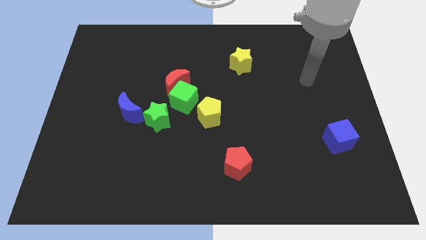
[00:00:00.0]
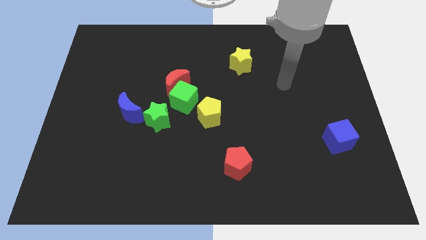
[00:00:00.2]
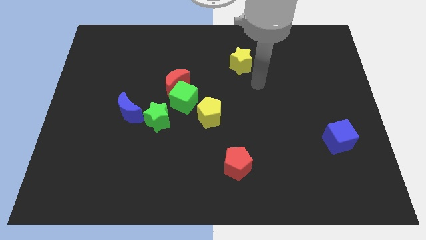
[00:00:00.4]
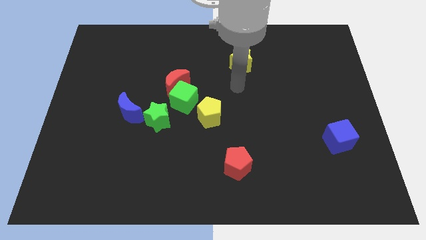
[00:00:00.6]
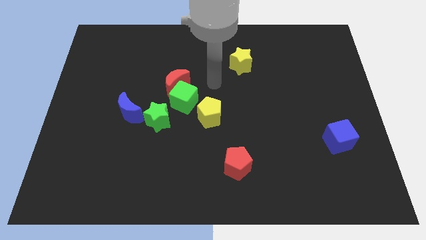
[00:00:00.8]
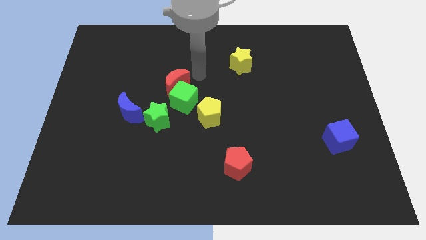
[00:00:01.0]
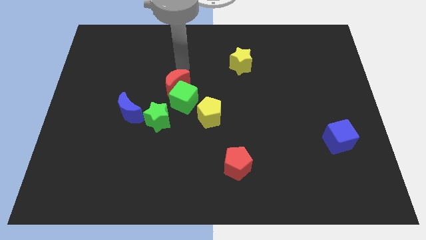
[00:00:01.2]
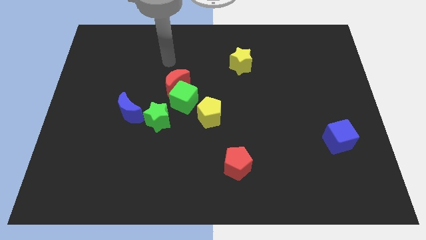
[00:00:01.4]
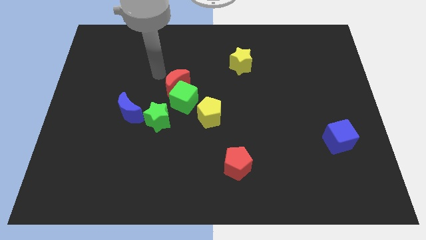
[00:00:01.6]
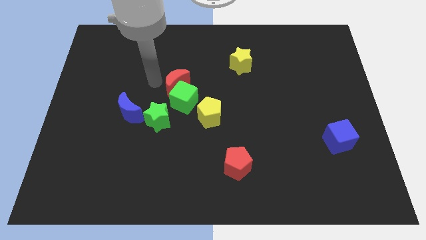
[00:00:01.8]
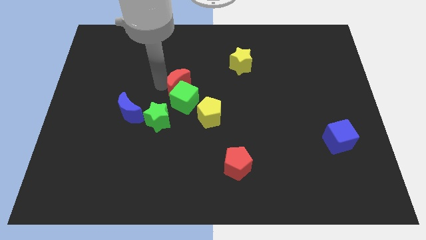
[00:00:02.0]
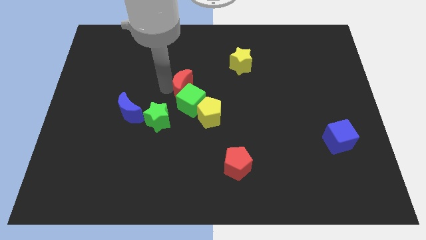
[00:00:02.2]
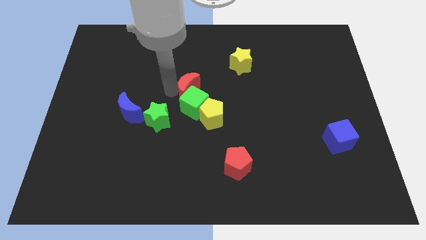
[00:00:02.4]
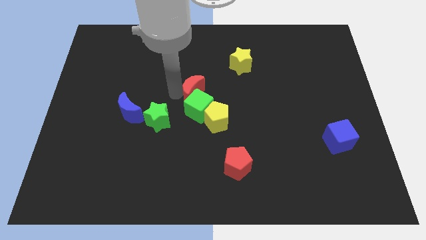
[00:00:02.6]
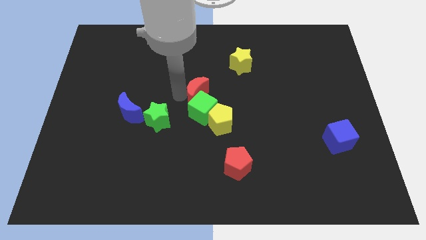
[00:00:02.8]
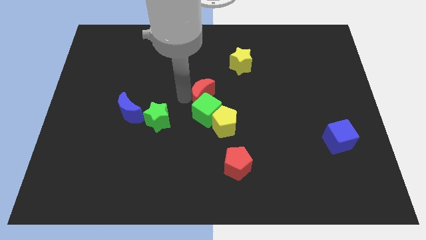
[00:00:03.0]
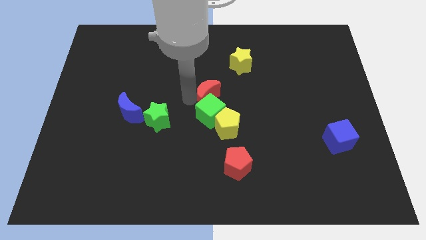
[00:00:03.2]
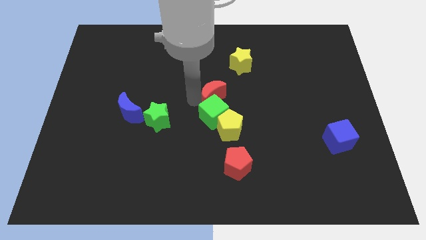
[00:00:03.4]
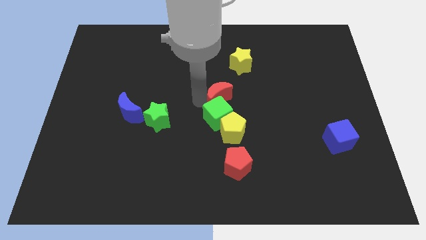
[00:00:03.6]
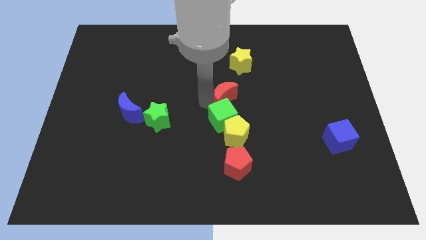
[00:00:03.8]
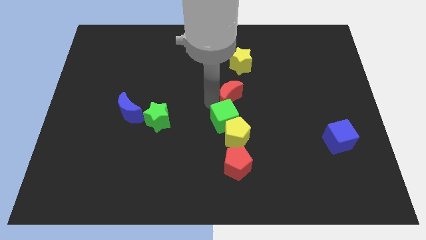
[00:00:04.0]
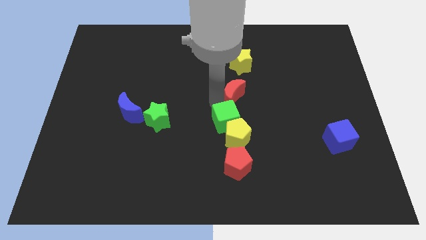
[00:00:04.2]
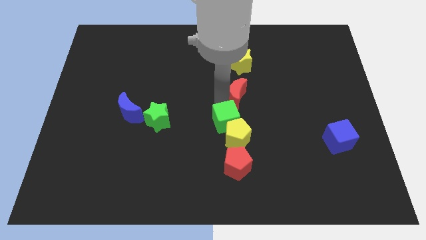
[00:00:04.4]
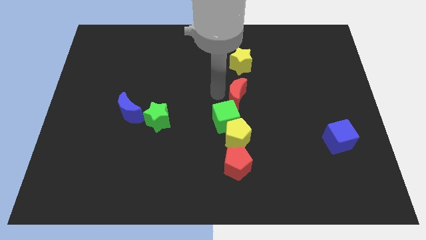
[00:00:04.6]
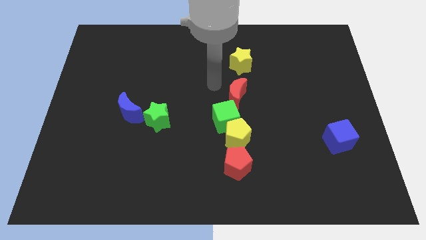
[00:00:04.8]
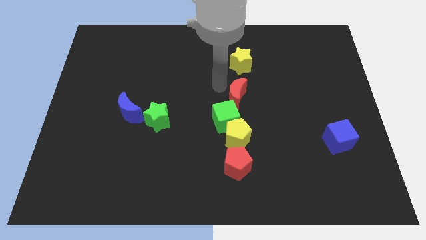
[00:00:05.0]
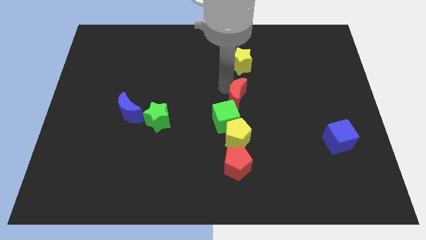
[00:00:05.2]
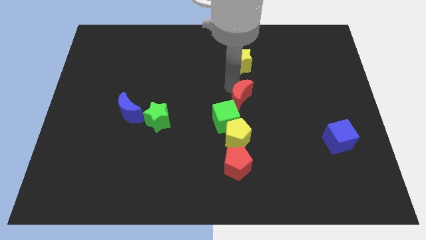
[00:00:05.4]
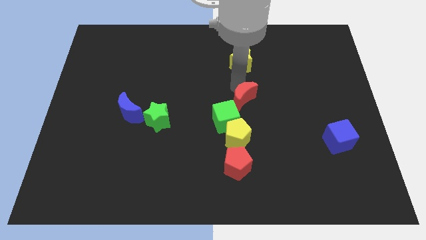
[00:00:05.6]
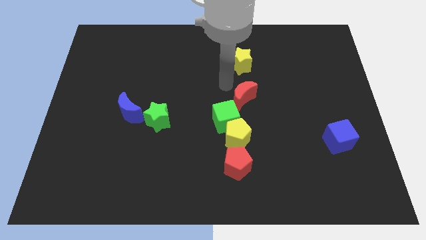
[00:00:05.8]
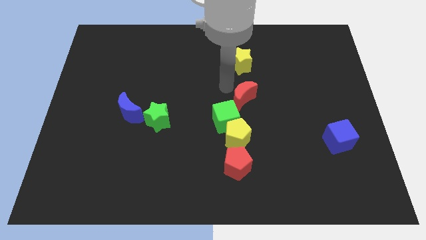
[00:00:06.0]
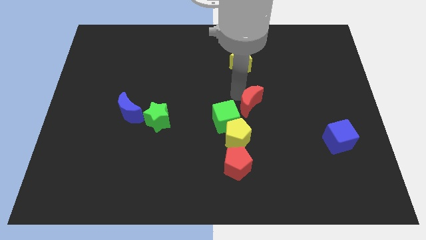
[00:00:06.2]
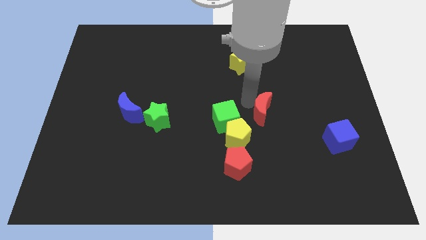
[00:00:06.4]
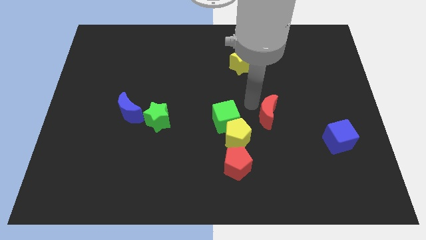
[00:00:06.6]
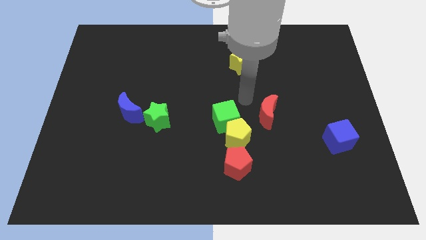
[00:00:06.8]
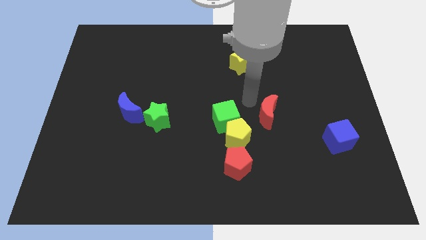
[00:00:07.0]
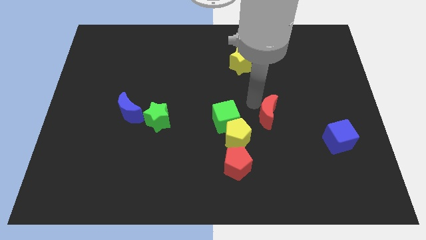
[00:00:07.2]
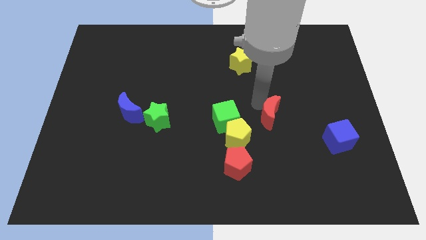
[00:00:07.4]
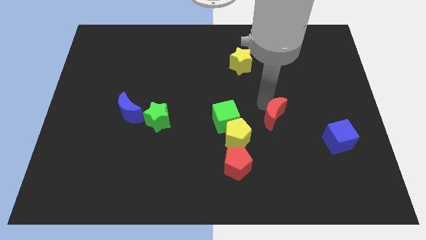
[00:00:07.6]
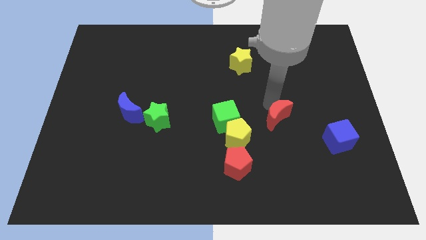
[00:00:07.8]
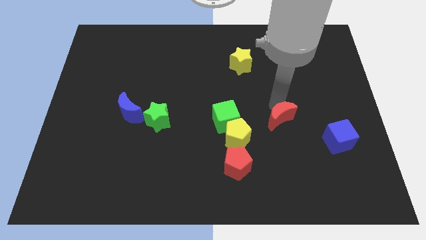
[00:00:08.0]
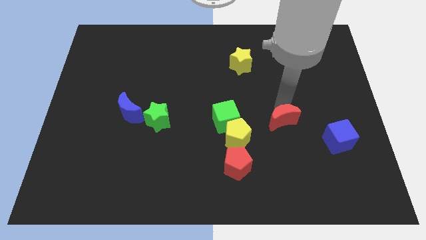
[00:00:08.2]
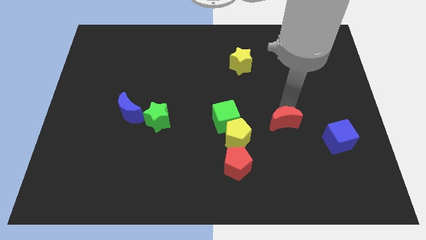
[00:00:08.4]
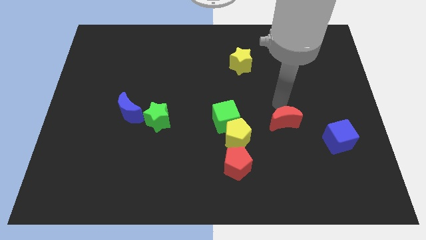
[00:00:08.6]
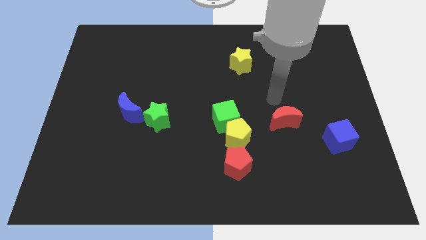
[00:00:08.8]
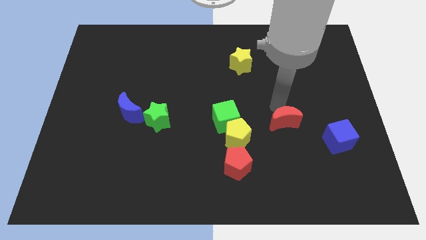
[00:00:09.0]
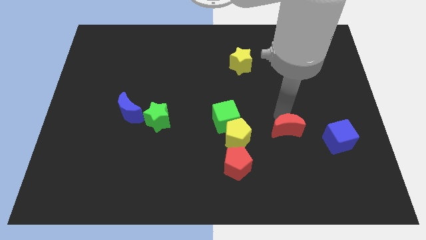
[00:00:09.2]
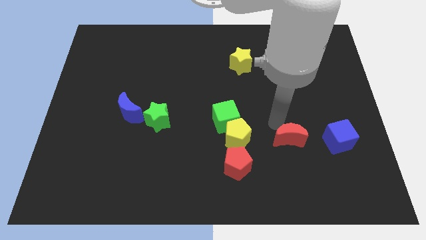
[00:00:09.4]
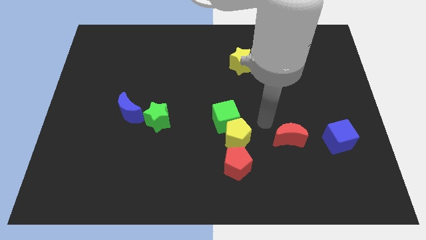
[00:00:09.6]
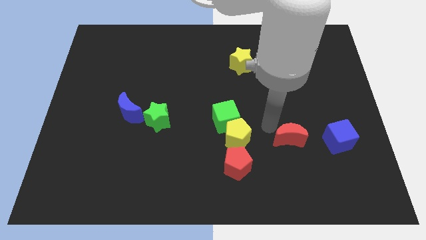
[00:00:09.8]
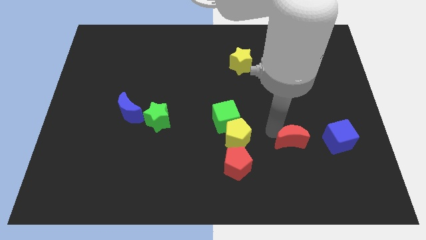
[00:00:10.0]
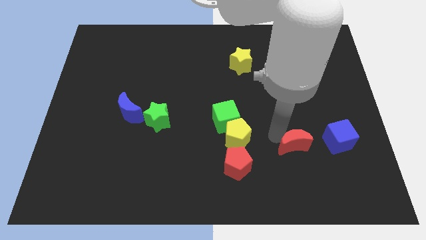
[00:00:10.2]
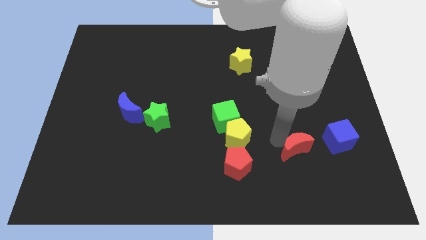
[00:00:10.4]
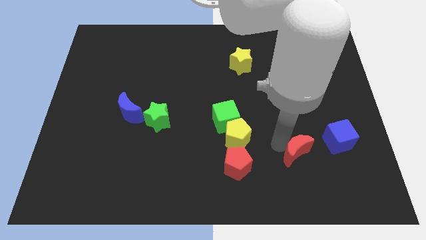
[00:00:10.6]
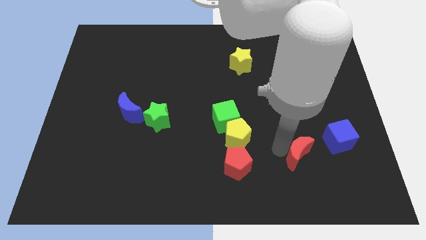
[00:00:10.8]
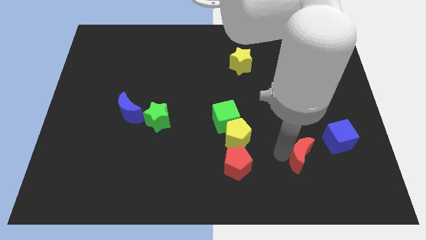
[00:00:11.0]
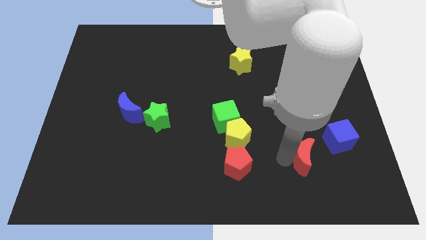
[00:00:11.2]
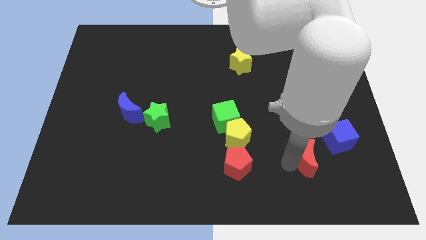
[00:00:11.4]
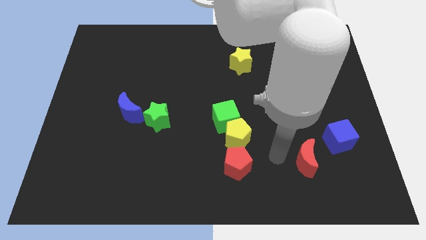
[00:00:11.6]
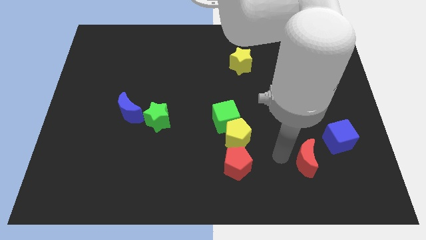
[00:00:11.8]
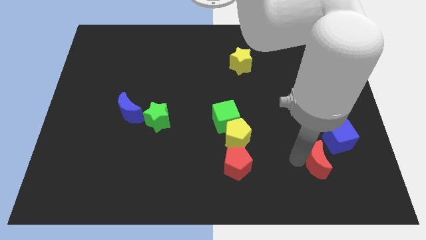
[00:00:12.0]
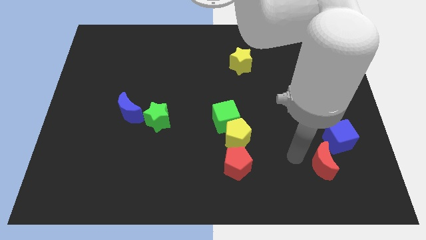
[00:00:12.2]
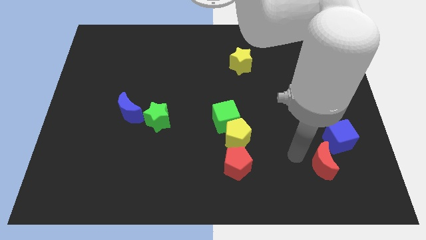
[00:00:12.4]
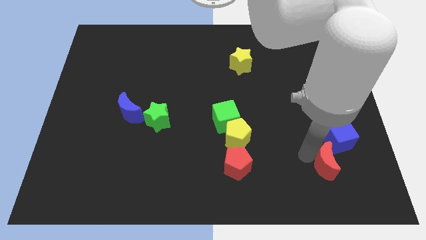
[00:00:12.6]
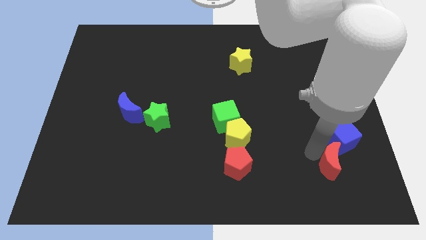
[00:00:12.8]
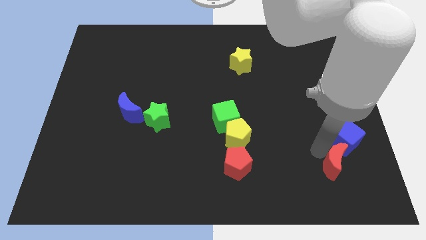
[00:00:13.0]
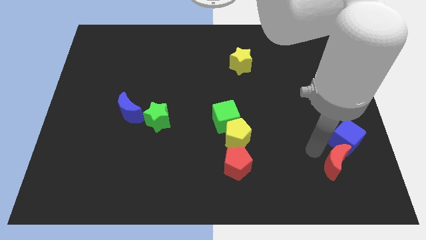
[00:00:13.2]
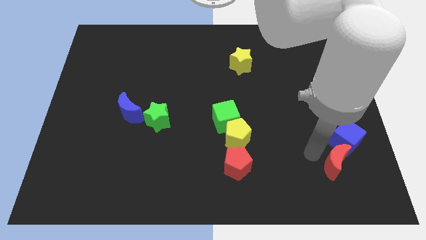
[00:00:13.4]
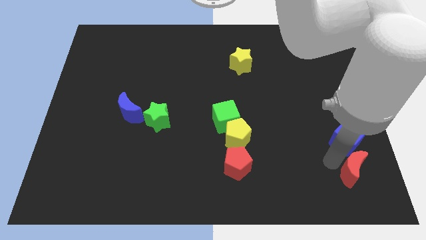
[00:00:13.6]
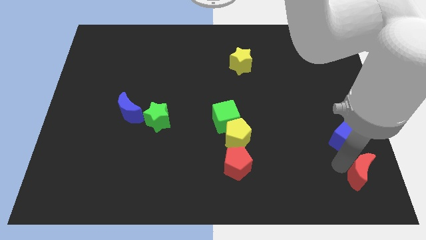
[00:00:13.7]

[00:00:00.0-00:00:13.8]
put the red moon to the bottom right of the board
